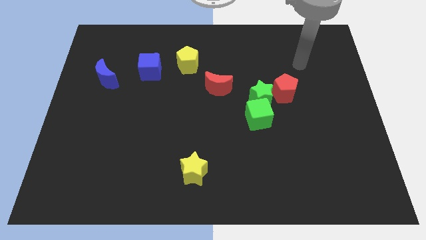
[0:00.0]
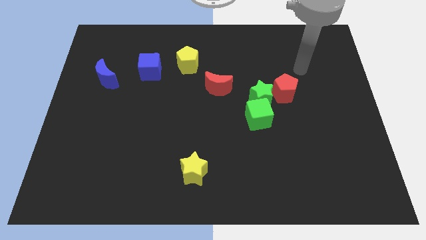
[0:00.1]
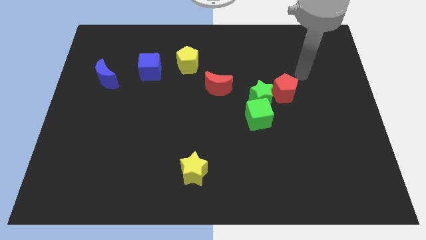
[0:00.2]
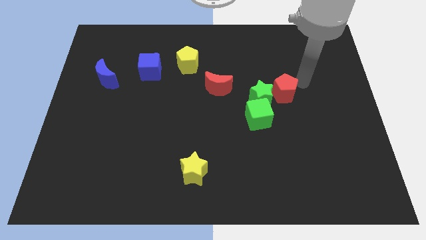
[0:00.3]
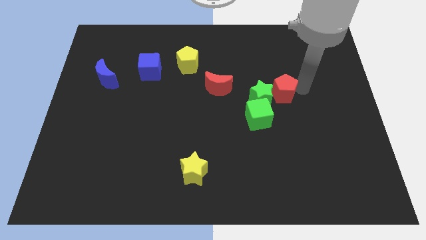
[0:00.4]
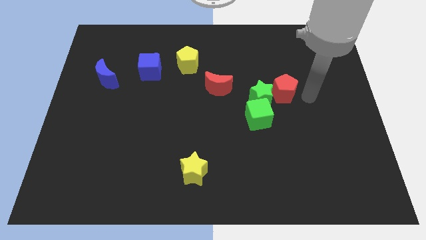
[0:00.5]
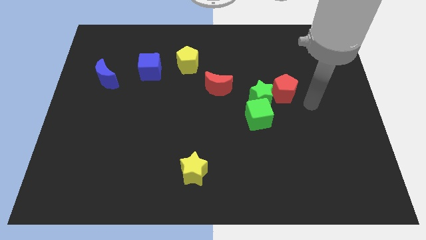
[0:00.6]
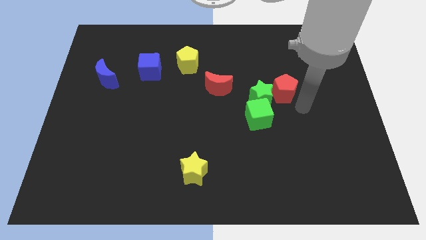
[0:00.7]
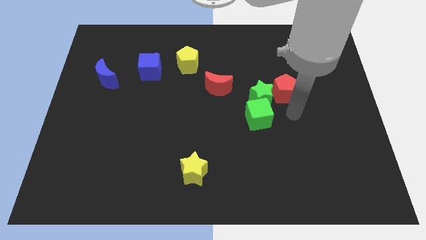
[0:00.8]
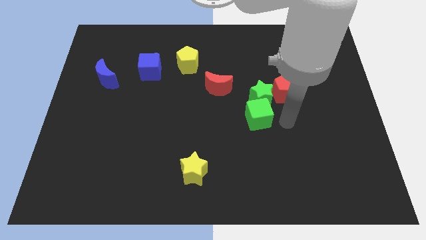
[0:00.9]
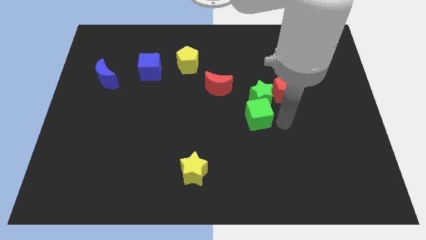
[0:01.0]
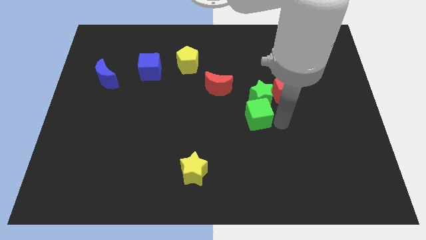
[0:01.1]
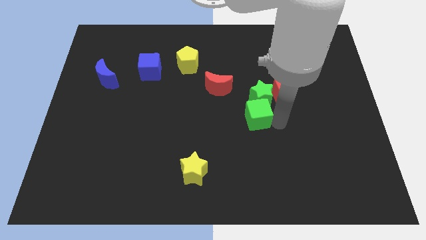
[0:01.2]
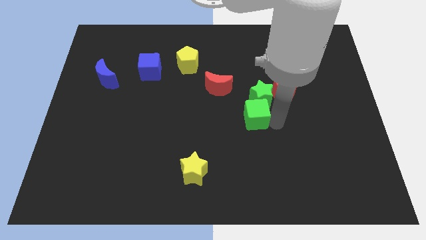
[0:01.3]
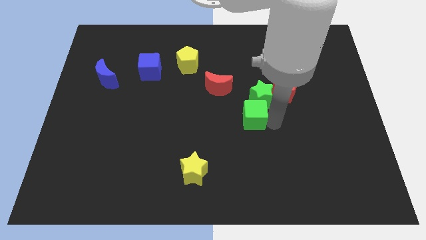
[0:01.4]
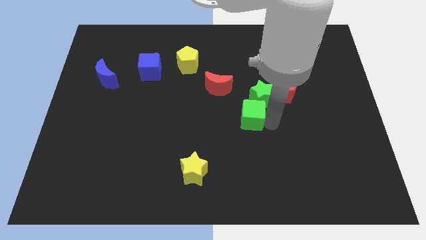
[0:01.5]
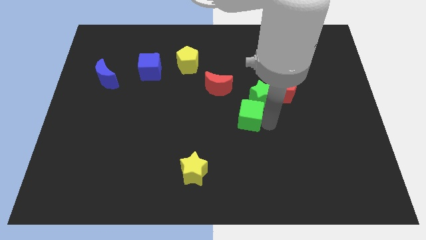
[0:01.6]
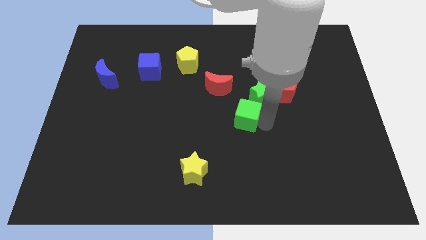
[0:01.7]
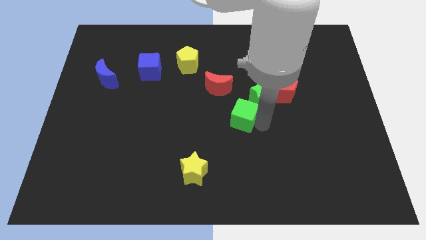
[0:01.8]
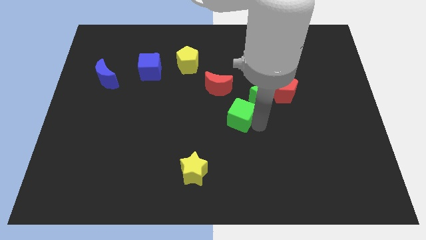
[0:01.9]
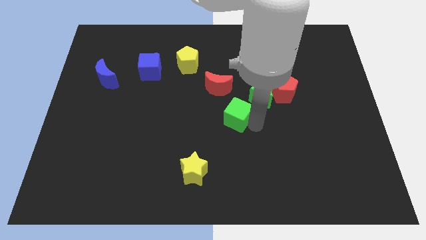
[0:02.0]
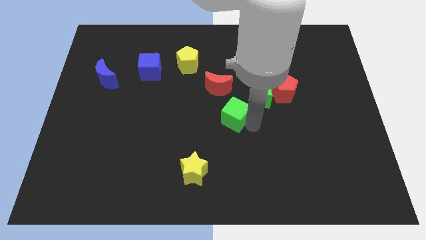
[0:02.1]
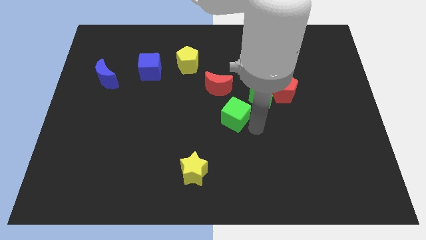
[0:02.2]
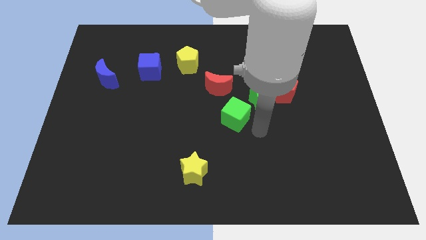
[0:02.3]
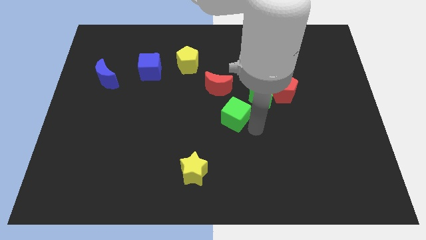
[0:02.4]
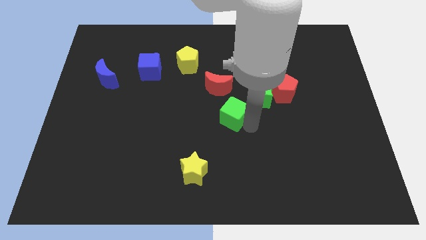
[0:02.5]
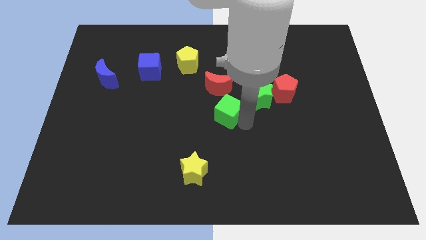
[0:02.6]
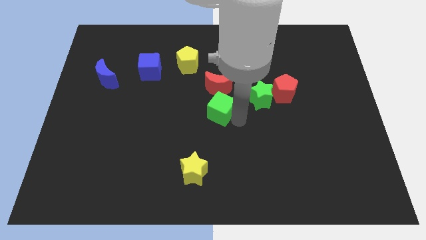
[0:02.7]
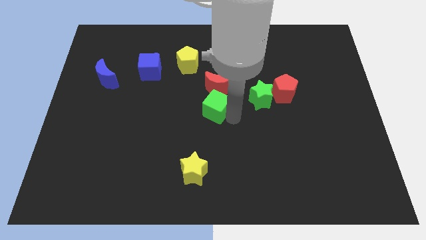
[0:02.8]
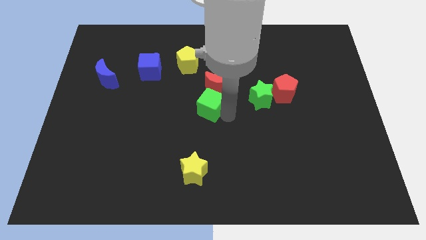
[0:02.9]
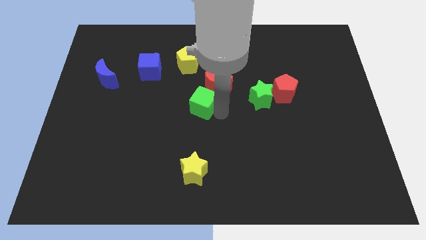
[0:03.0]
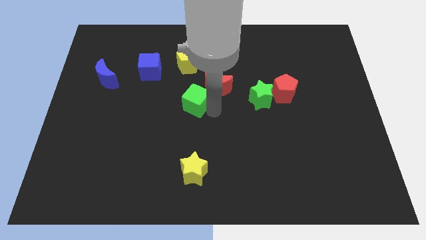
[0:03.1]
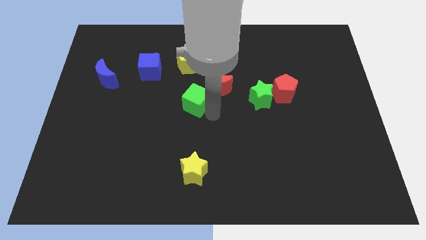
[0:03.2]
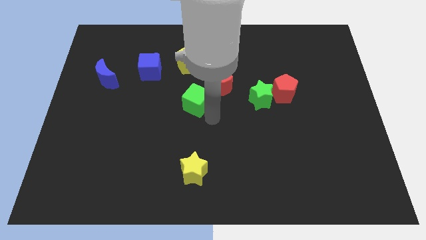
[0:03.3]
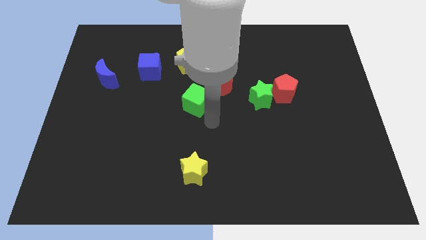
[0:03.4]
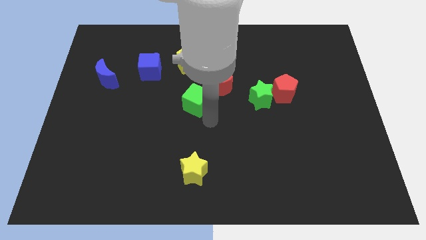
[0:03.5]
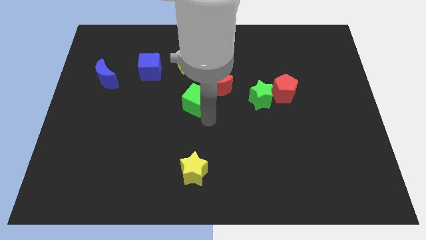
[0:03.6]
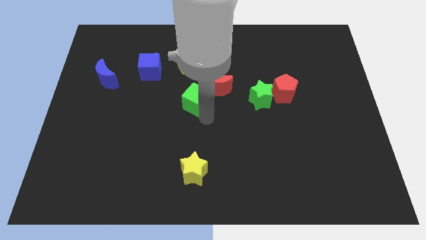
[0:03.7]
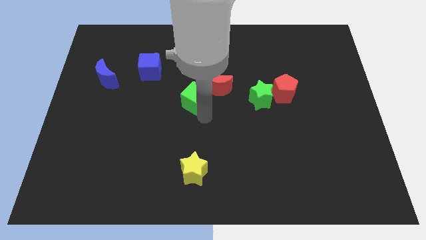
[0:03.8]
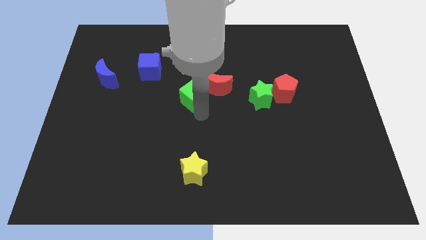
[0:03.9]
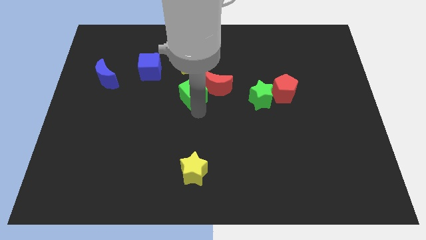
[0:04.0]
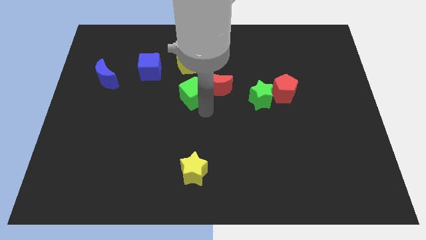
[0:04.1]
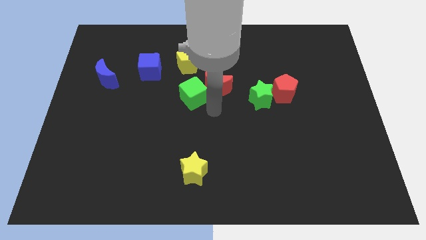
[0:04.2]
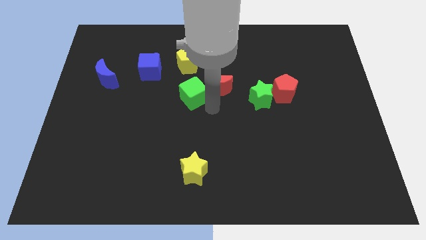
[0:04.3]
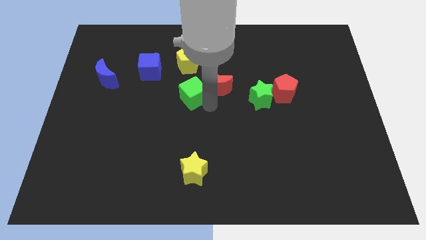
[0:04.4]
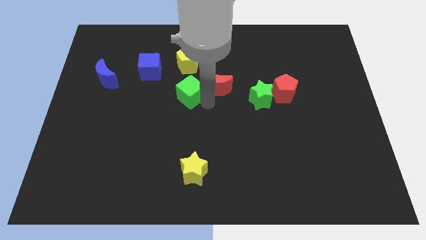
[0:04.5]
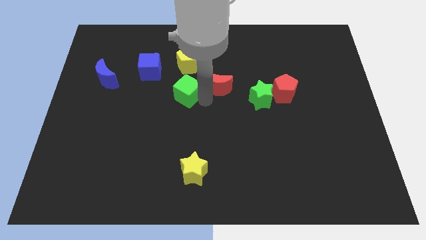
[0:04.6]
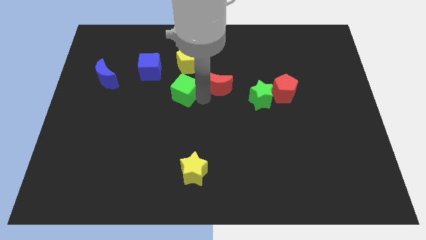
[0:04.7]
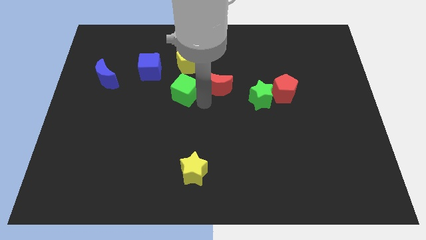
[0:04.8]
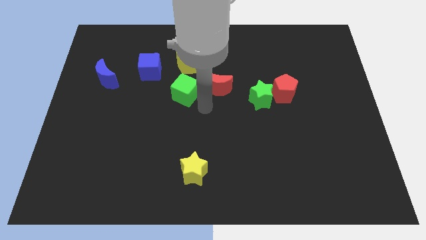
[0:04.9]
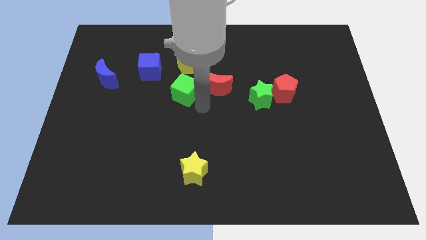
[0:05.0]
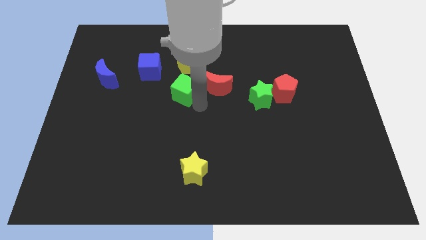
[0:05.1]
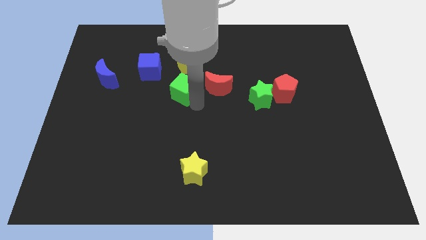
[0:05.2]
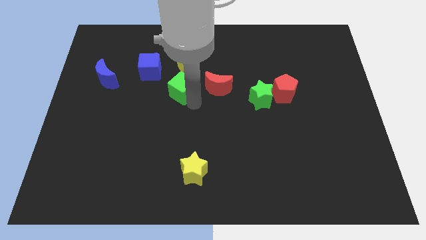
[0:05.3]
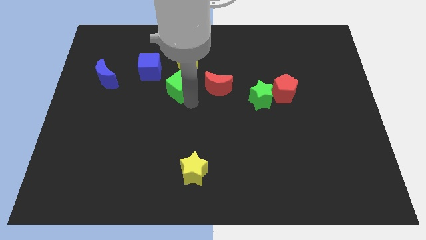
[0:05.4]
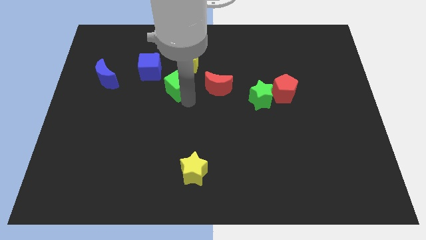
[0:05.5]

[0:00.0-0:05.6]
slide the green cube diagonally down and to the left of the yellow pentagon

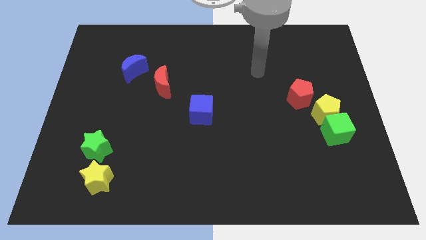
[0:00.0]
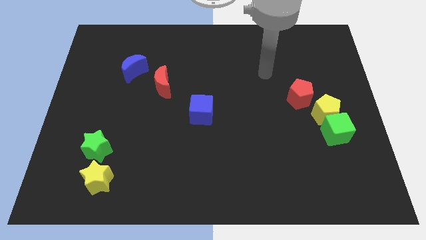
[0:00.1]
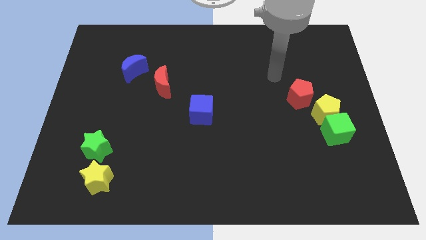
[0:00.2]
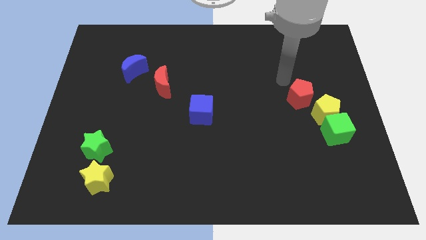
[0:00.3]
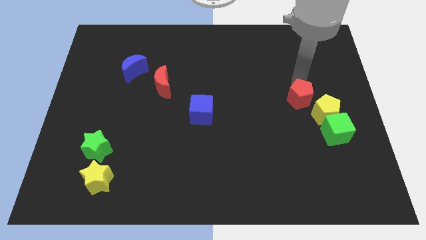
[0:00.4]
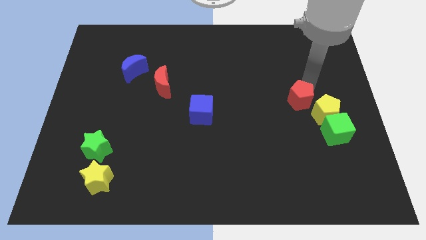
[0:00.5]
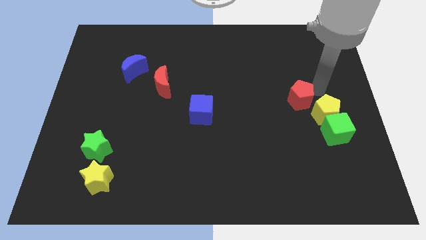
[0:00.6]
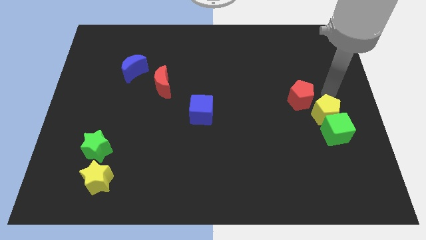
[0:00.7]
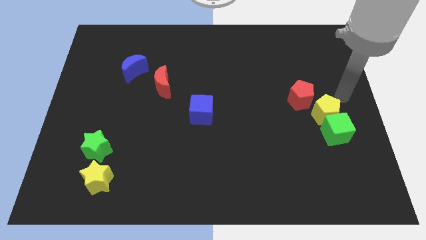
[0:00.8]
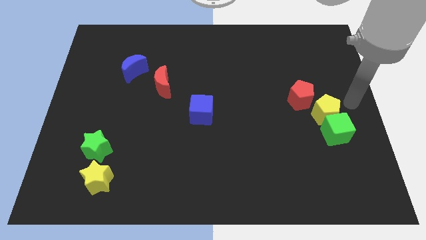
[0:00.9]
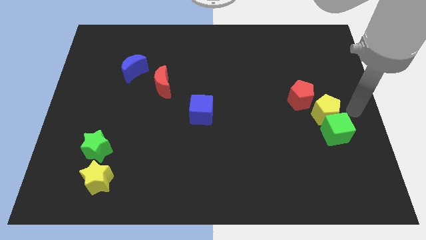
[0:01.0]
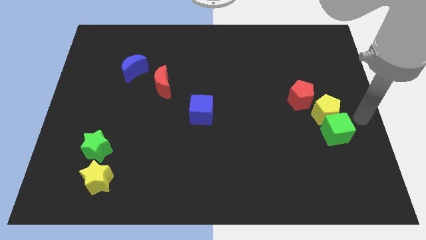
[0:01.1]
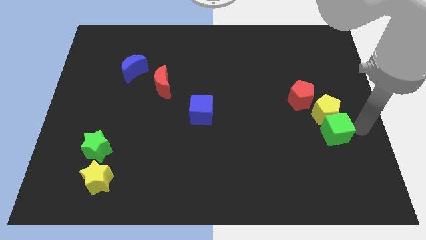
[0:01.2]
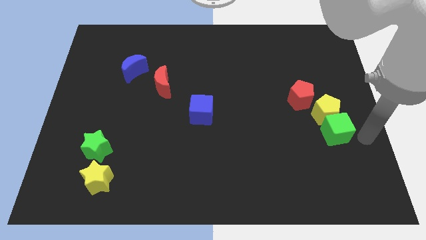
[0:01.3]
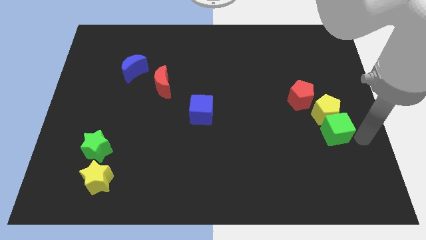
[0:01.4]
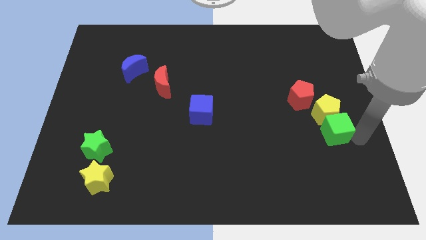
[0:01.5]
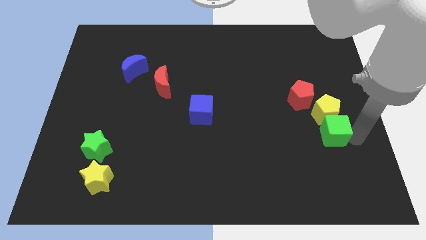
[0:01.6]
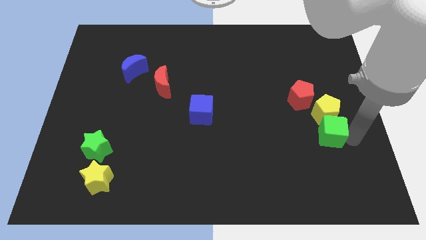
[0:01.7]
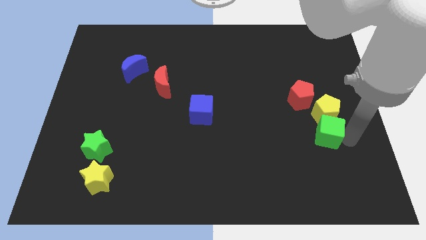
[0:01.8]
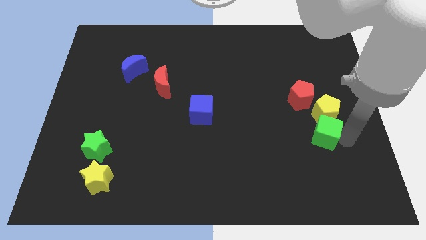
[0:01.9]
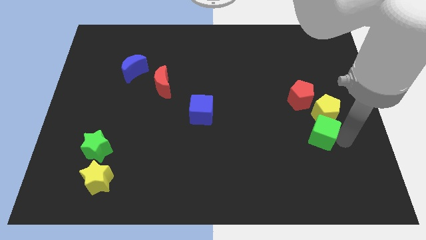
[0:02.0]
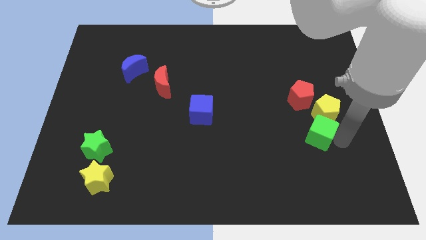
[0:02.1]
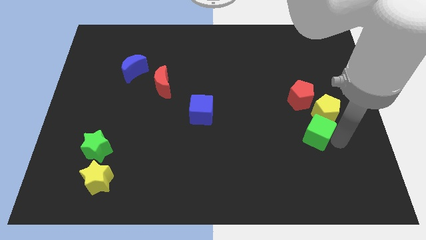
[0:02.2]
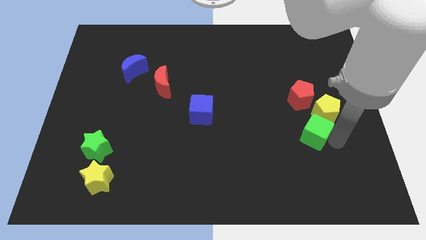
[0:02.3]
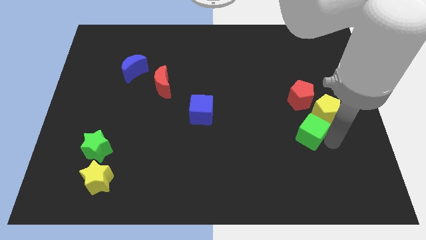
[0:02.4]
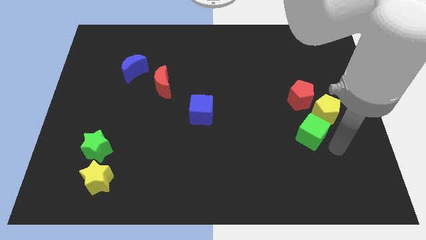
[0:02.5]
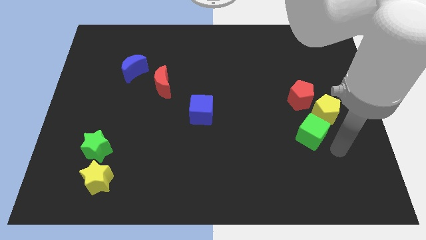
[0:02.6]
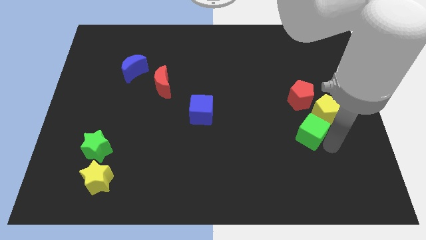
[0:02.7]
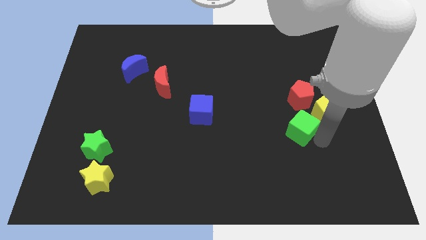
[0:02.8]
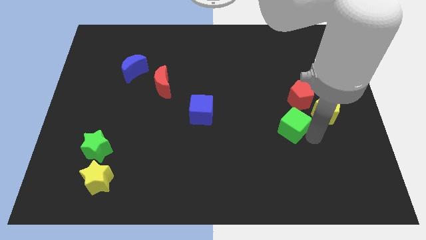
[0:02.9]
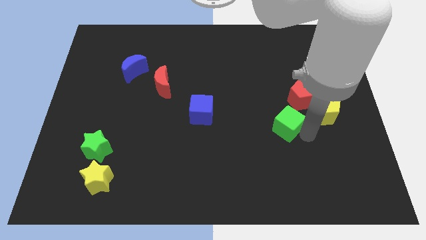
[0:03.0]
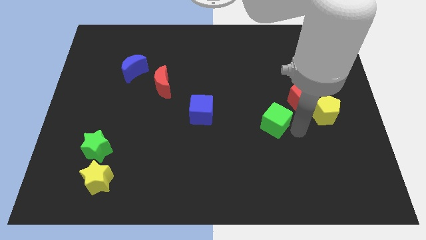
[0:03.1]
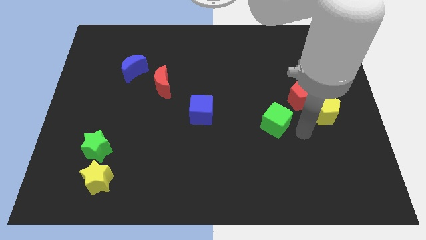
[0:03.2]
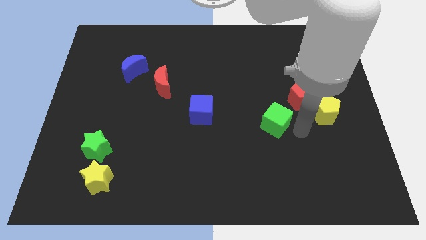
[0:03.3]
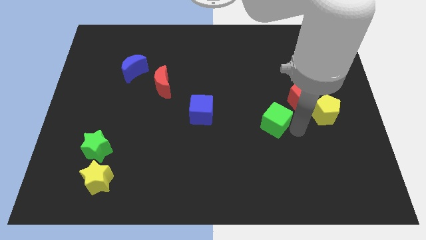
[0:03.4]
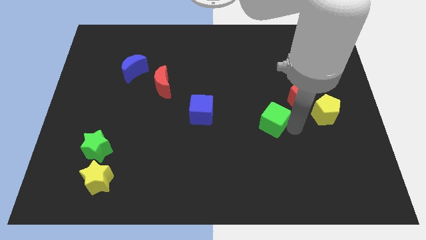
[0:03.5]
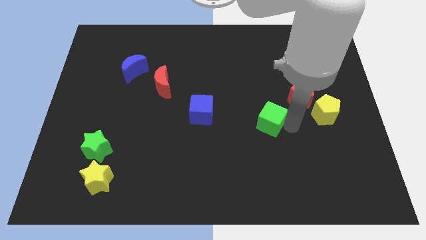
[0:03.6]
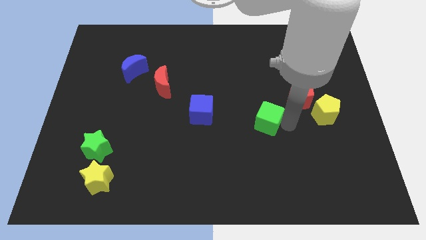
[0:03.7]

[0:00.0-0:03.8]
put the green cube right of the blue cube
